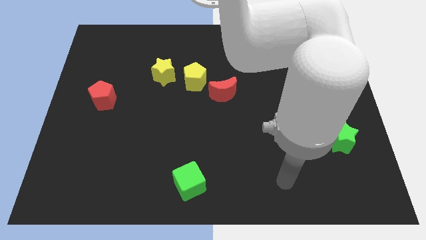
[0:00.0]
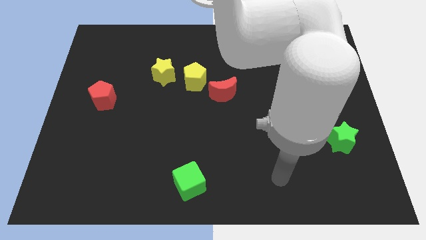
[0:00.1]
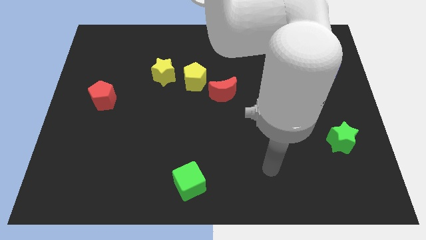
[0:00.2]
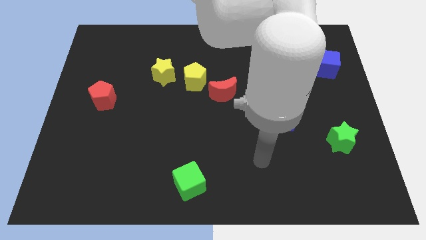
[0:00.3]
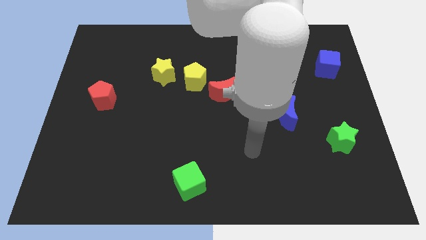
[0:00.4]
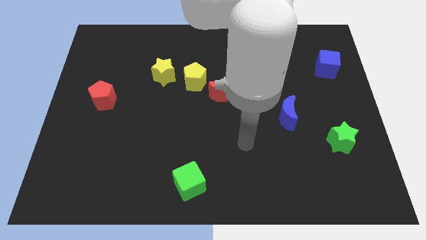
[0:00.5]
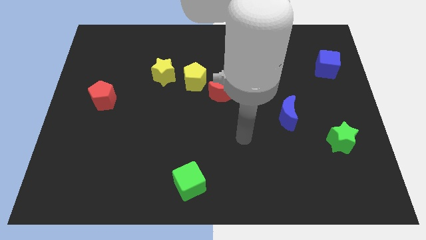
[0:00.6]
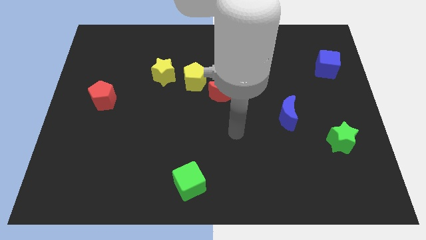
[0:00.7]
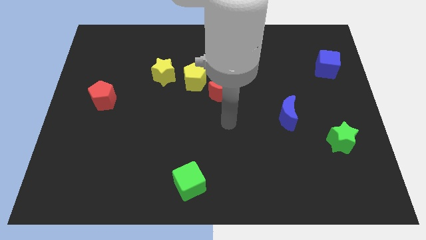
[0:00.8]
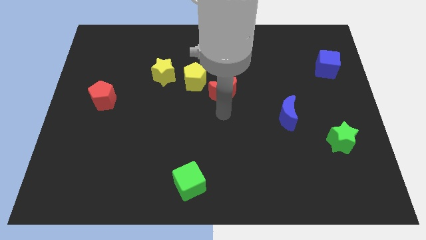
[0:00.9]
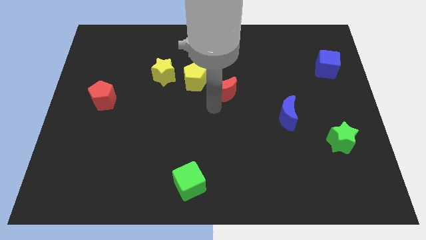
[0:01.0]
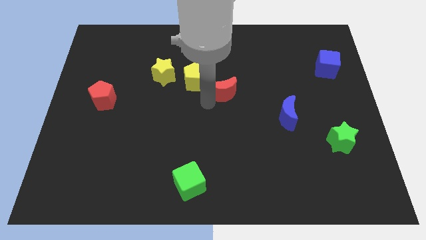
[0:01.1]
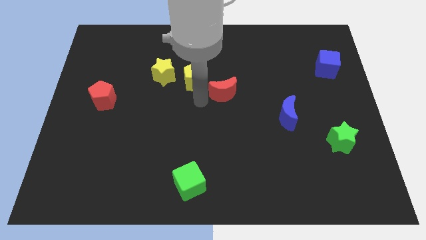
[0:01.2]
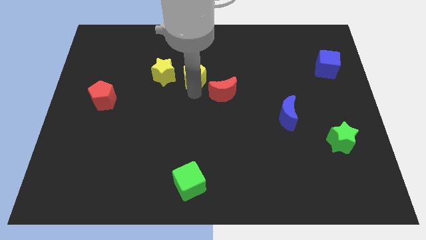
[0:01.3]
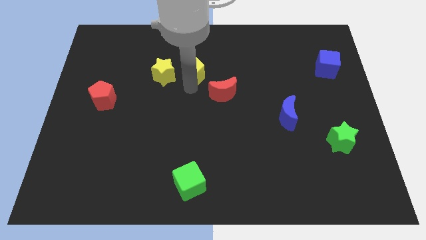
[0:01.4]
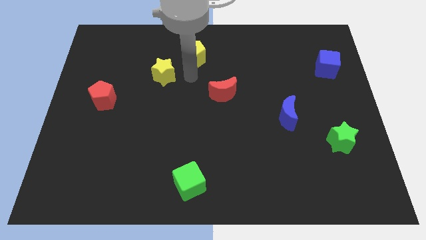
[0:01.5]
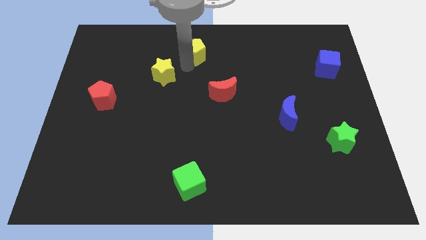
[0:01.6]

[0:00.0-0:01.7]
move the yellow star away from the yellow pentagon

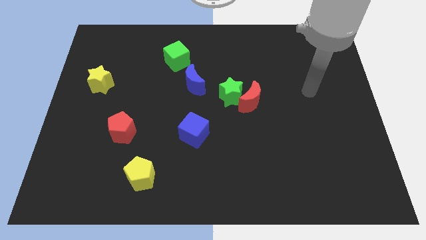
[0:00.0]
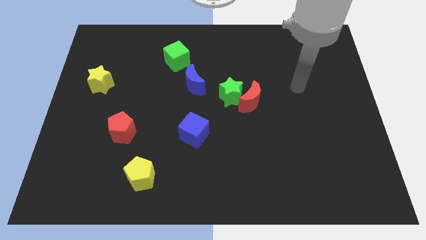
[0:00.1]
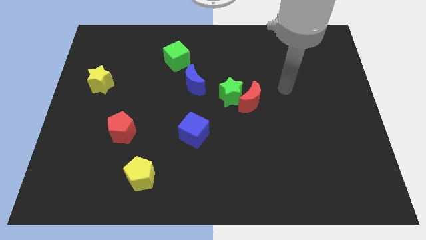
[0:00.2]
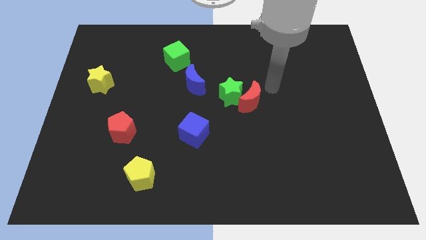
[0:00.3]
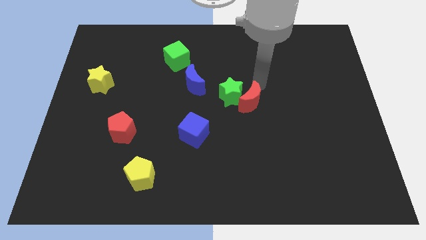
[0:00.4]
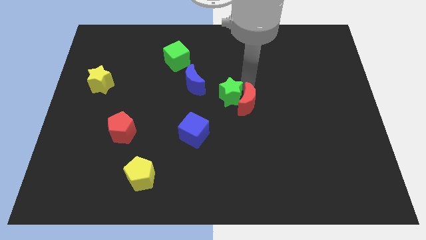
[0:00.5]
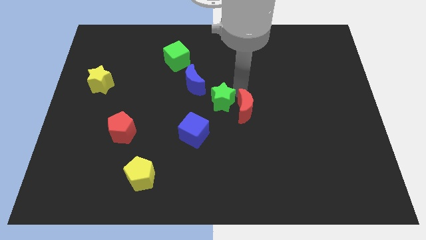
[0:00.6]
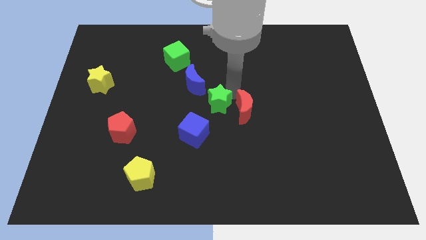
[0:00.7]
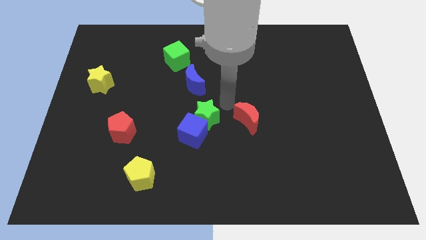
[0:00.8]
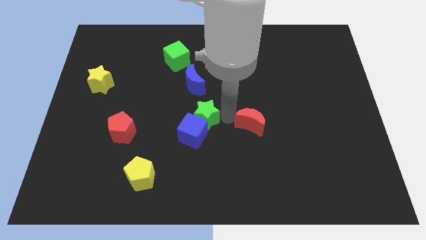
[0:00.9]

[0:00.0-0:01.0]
separate the red moon from the green star

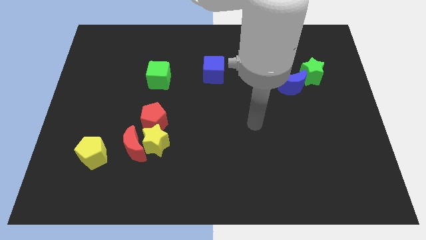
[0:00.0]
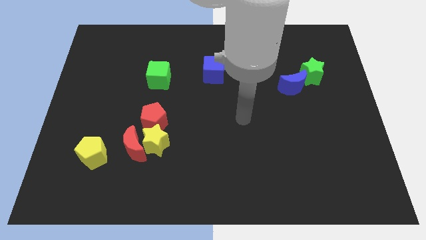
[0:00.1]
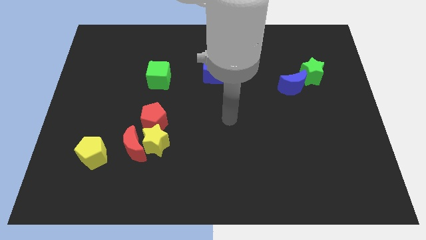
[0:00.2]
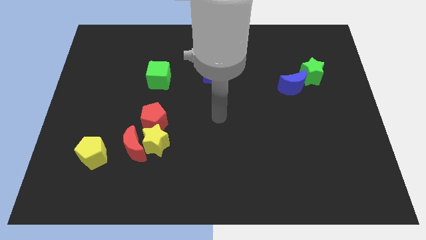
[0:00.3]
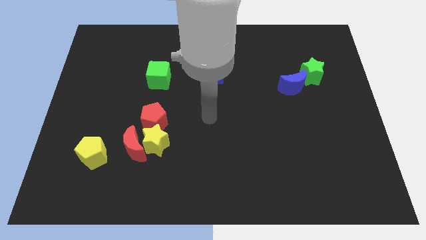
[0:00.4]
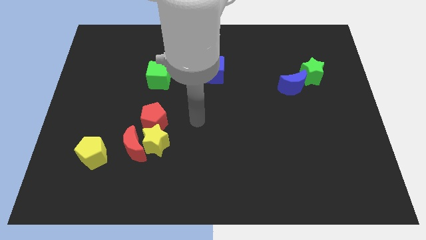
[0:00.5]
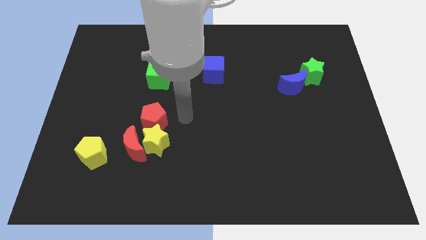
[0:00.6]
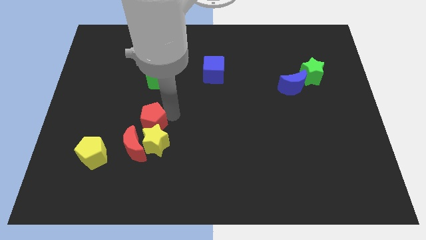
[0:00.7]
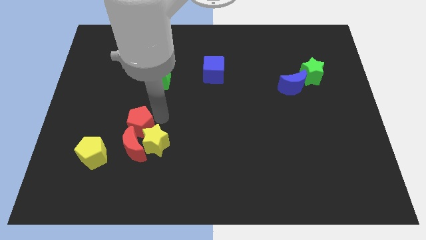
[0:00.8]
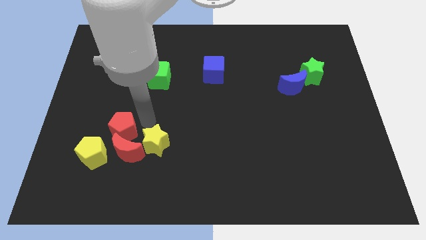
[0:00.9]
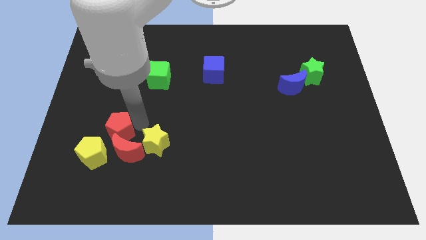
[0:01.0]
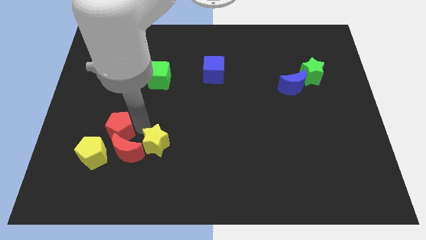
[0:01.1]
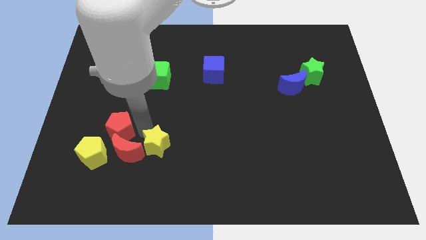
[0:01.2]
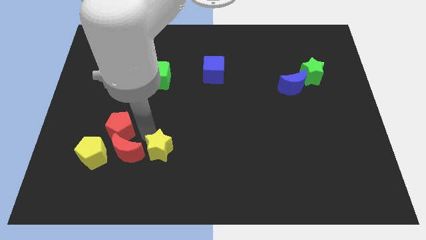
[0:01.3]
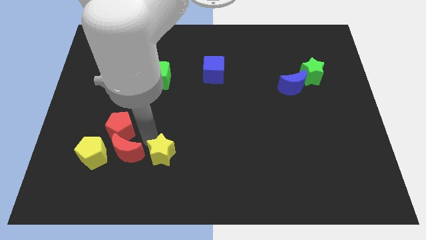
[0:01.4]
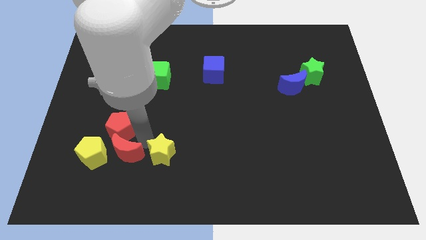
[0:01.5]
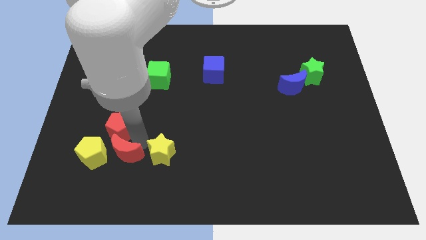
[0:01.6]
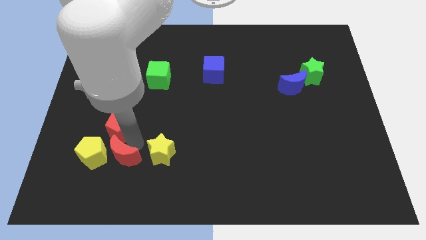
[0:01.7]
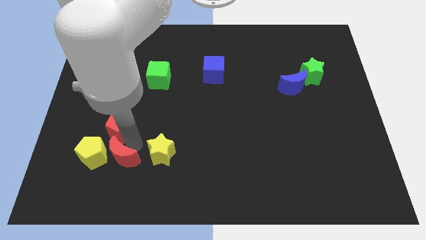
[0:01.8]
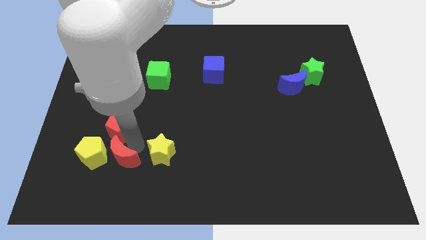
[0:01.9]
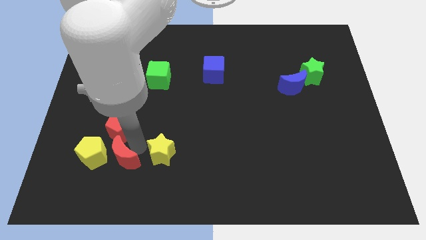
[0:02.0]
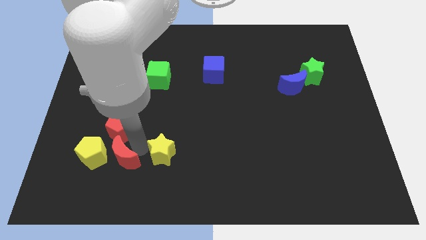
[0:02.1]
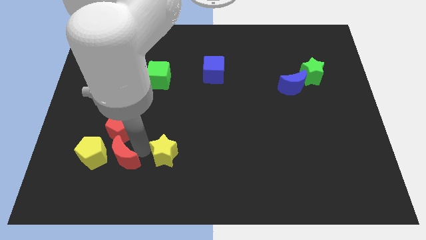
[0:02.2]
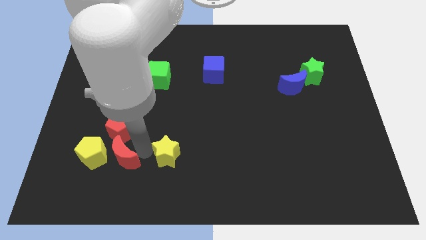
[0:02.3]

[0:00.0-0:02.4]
separate the yellow star from the red moon and red pentagon

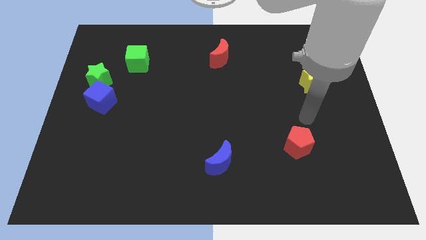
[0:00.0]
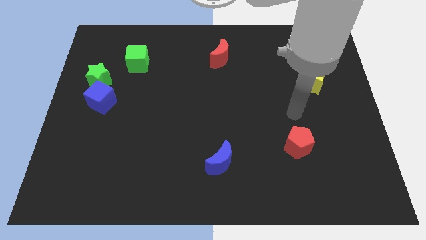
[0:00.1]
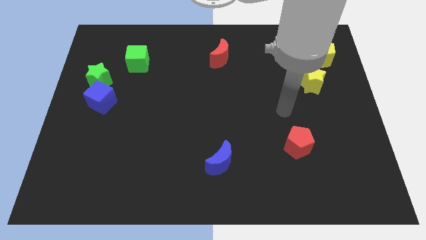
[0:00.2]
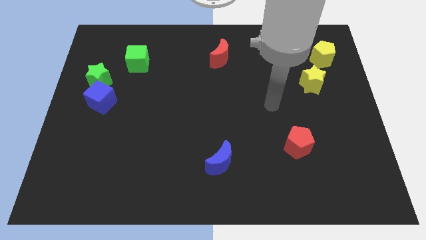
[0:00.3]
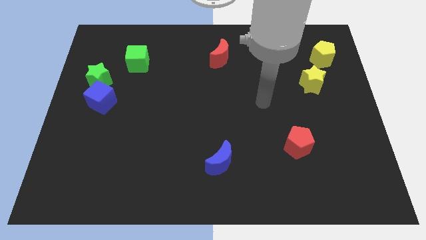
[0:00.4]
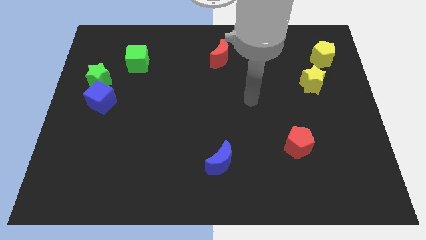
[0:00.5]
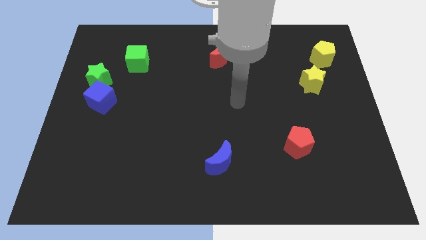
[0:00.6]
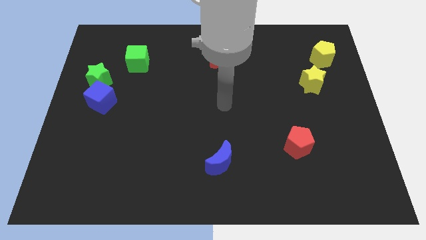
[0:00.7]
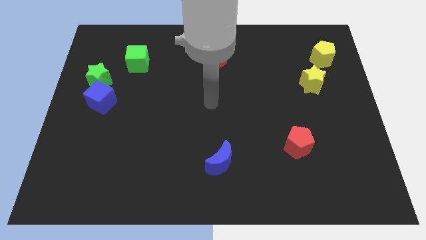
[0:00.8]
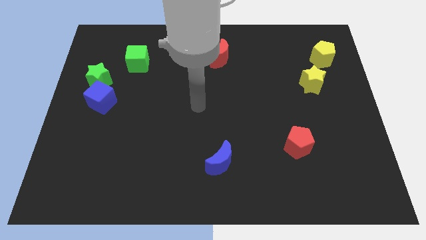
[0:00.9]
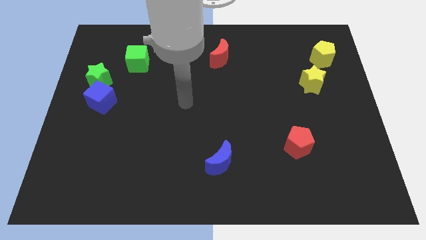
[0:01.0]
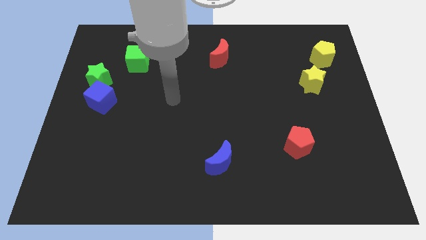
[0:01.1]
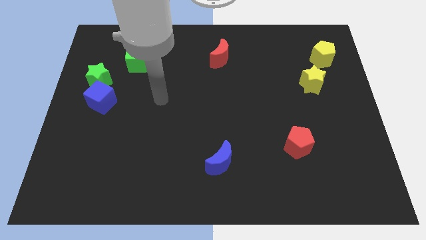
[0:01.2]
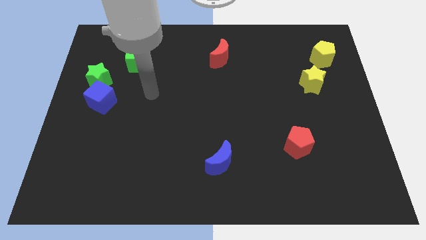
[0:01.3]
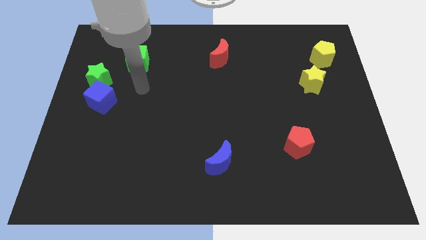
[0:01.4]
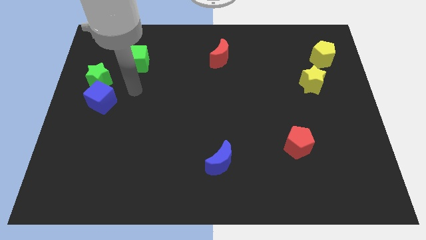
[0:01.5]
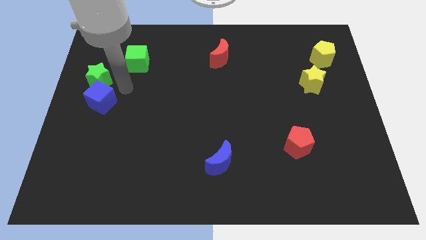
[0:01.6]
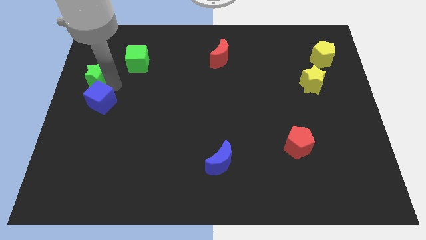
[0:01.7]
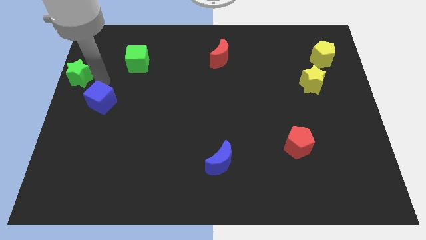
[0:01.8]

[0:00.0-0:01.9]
separate the blue cube from the green star

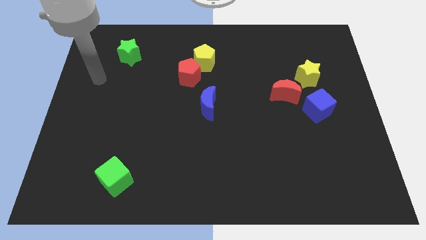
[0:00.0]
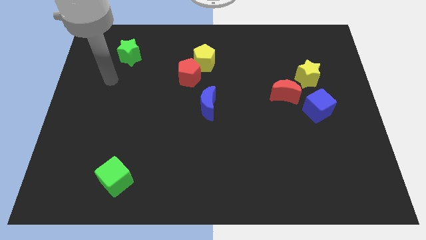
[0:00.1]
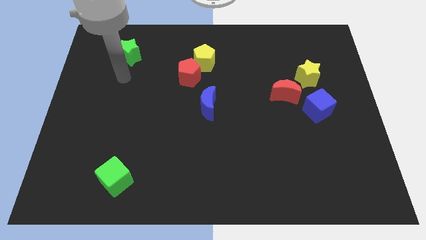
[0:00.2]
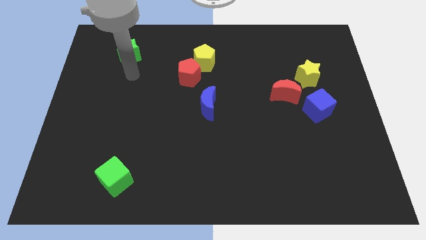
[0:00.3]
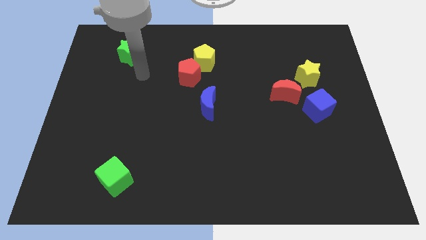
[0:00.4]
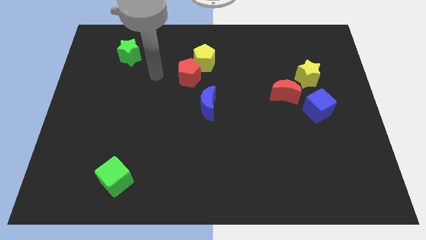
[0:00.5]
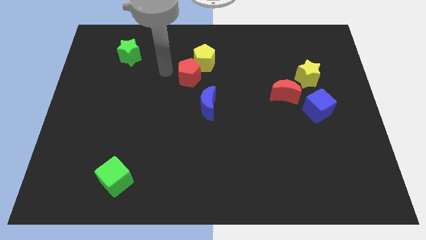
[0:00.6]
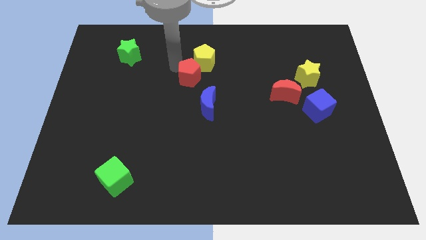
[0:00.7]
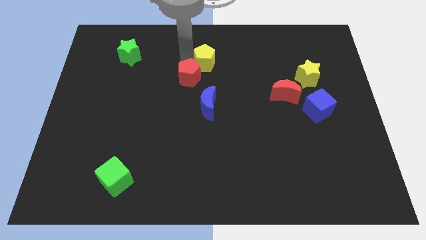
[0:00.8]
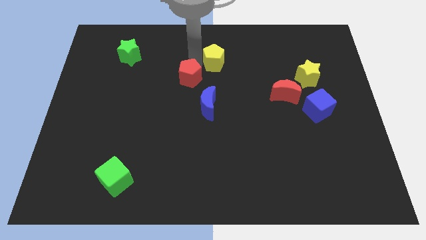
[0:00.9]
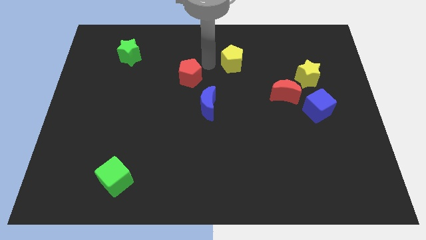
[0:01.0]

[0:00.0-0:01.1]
separate the red pentagon from the yellow pentagon

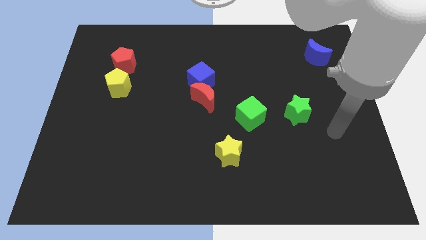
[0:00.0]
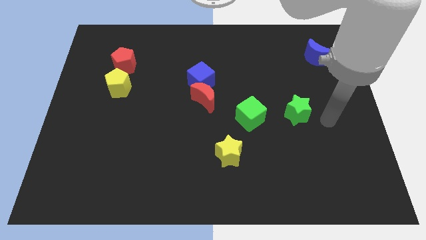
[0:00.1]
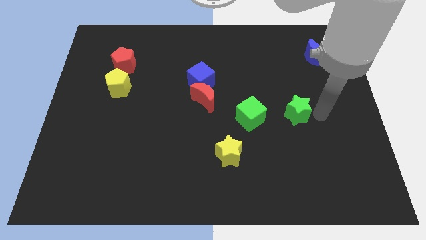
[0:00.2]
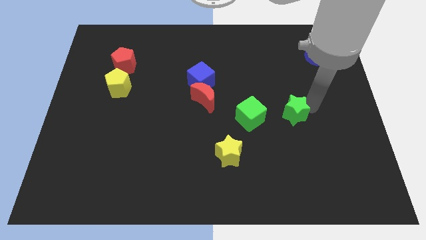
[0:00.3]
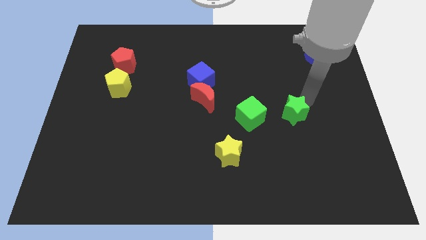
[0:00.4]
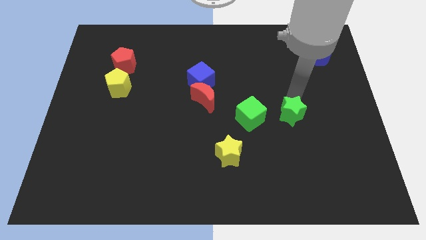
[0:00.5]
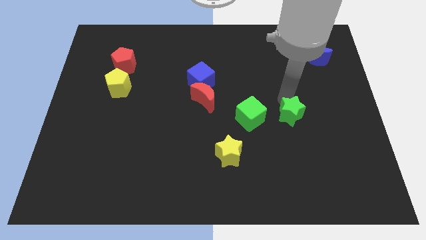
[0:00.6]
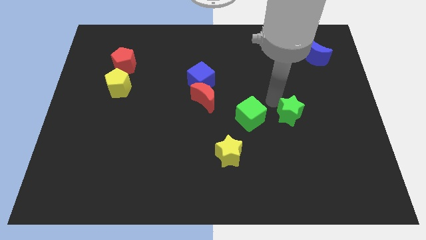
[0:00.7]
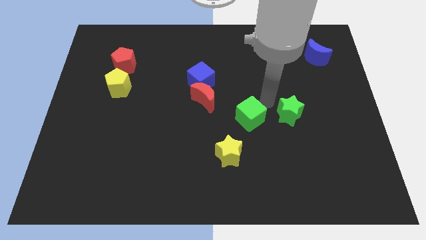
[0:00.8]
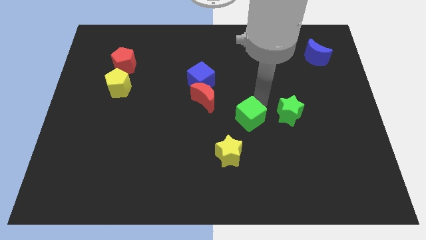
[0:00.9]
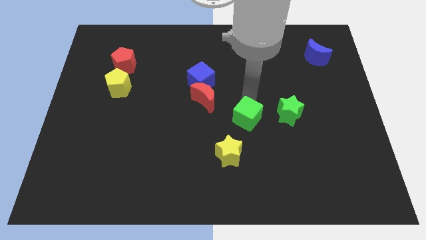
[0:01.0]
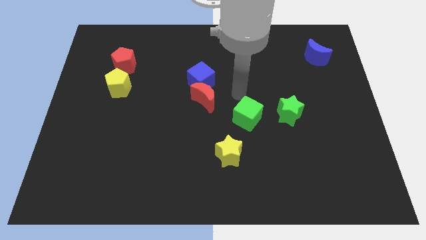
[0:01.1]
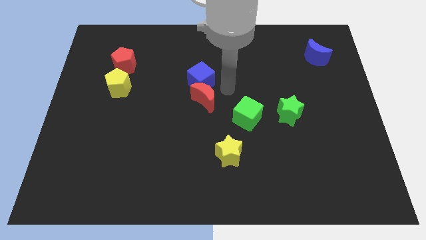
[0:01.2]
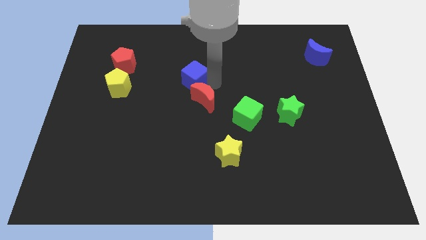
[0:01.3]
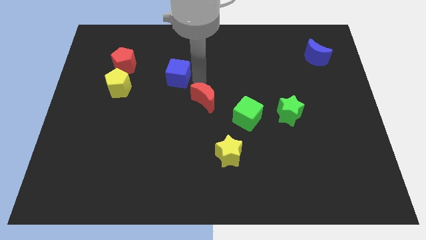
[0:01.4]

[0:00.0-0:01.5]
separate the red moon from the blue cube
